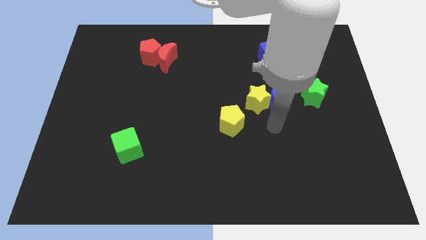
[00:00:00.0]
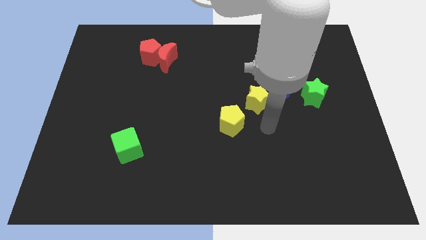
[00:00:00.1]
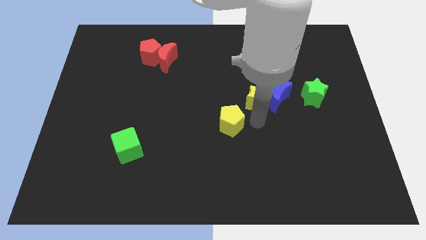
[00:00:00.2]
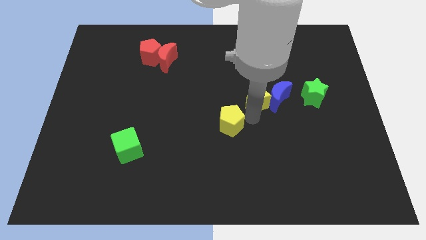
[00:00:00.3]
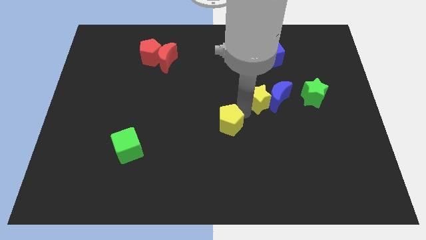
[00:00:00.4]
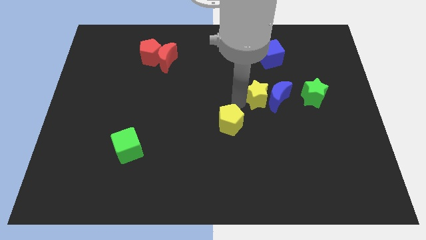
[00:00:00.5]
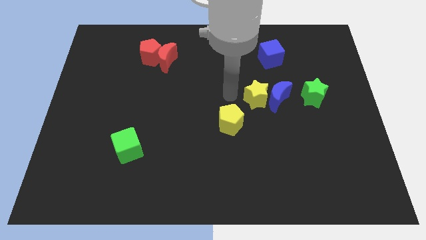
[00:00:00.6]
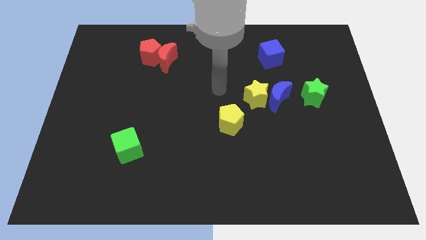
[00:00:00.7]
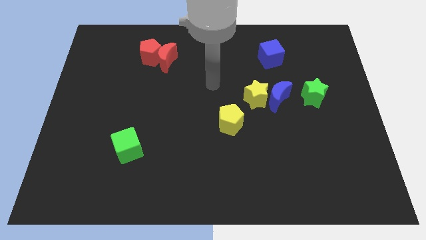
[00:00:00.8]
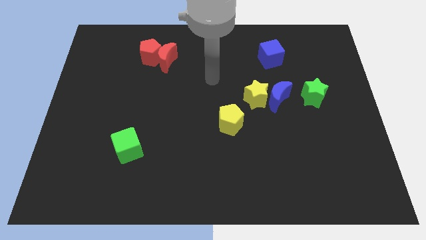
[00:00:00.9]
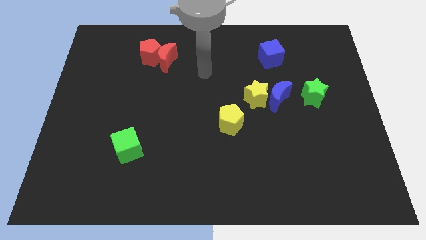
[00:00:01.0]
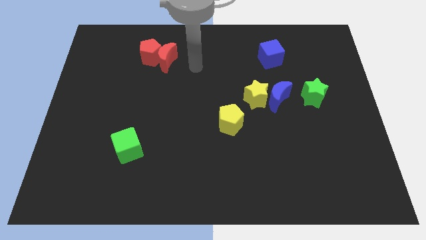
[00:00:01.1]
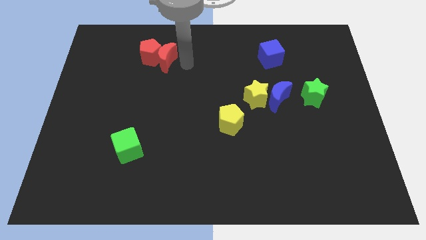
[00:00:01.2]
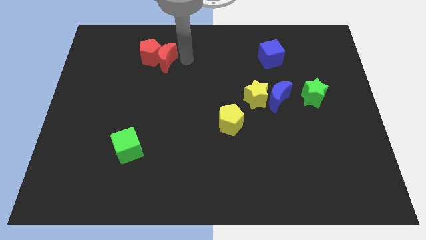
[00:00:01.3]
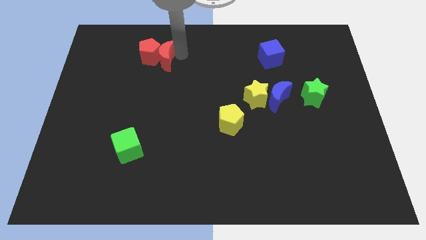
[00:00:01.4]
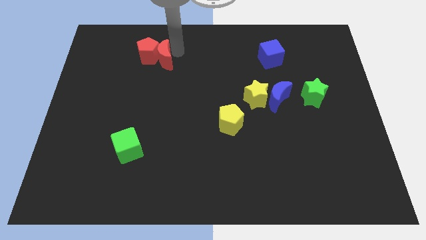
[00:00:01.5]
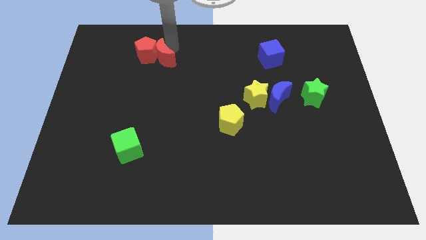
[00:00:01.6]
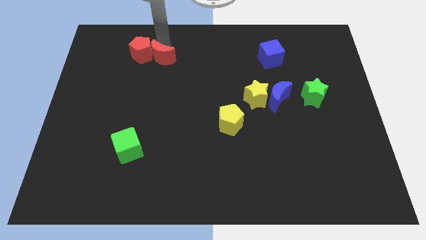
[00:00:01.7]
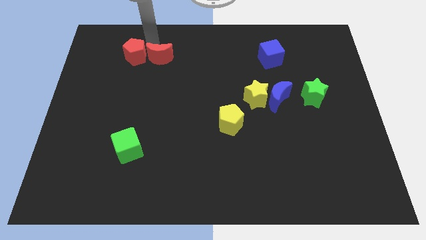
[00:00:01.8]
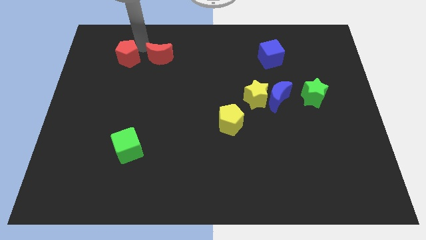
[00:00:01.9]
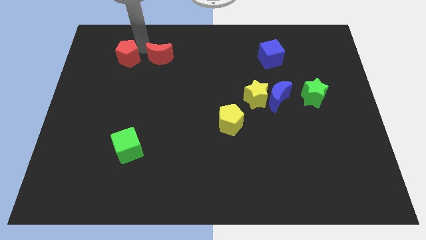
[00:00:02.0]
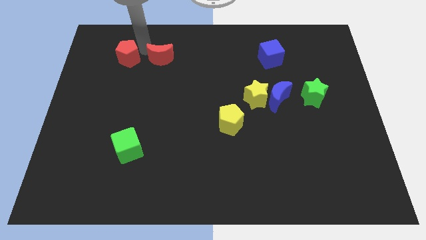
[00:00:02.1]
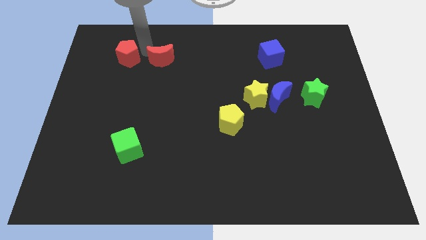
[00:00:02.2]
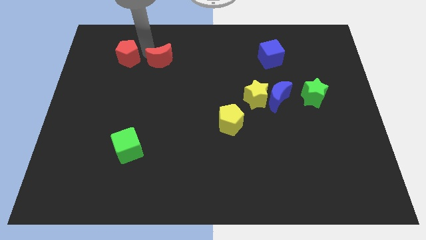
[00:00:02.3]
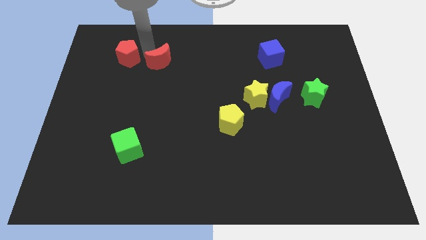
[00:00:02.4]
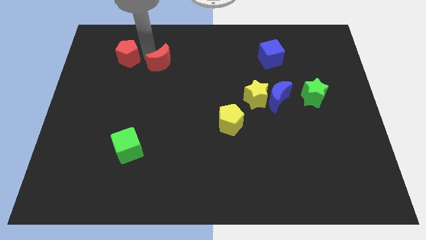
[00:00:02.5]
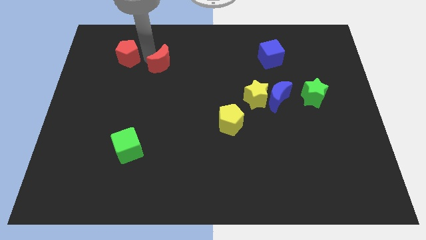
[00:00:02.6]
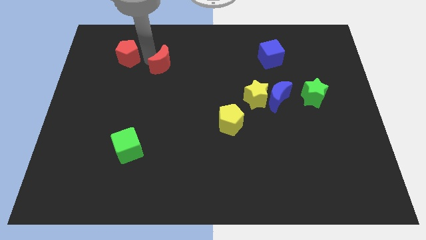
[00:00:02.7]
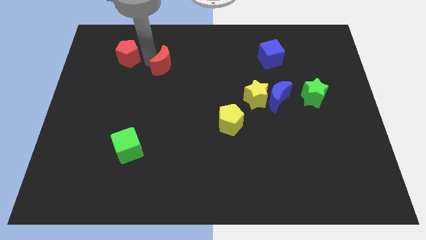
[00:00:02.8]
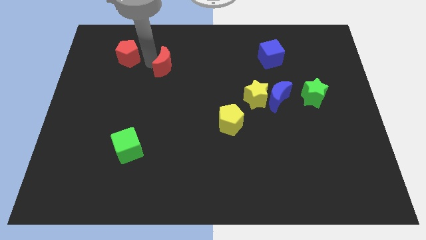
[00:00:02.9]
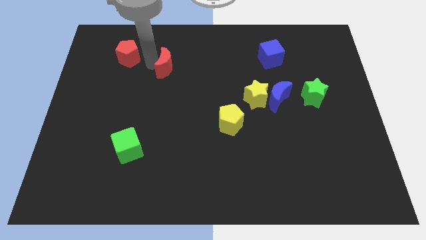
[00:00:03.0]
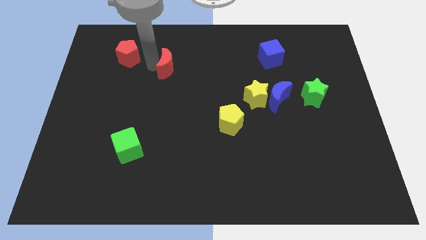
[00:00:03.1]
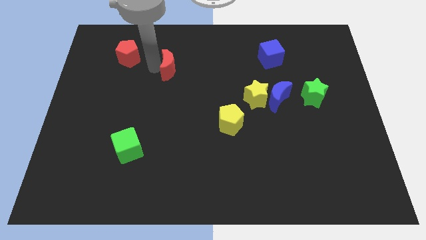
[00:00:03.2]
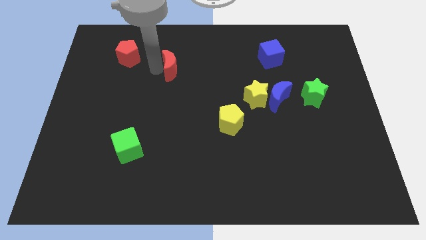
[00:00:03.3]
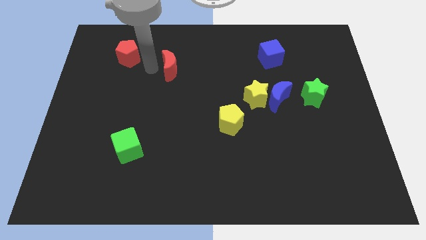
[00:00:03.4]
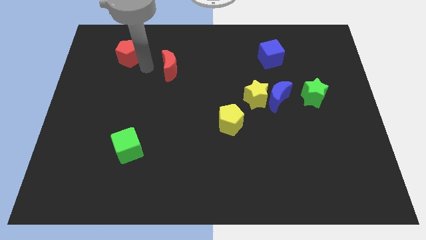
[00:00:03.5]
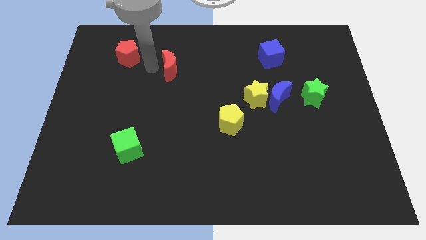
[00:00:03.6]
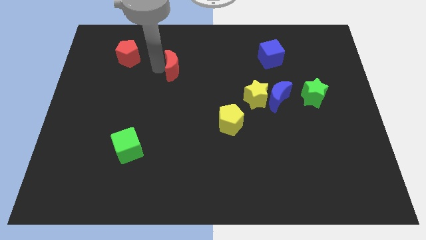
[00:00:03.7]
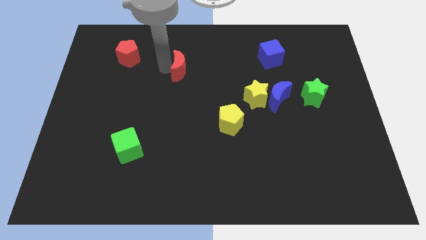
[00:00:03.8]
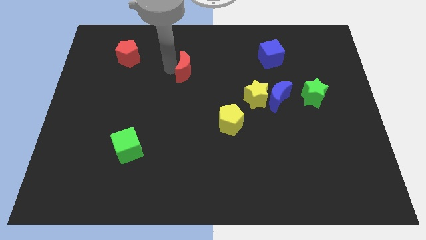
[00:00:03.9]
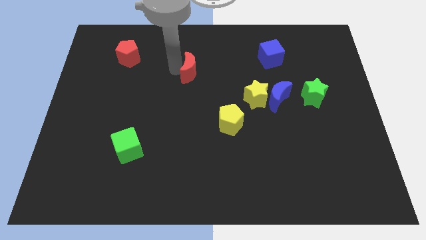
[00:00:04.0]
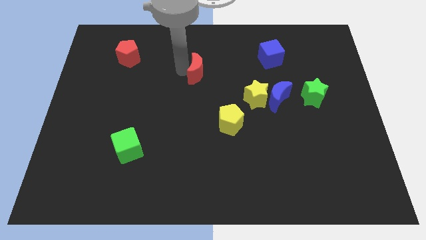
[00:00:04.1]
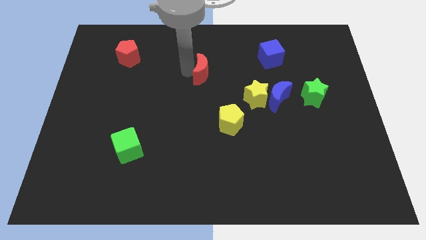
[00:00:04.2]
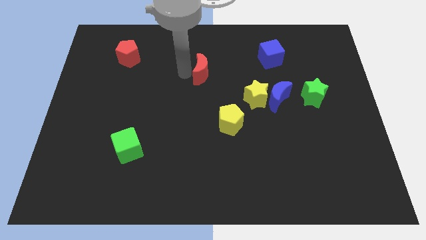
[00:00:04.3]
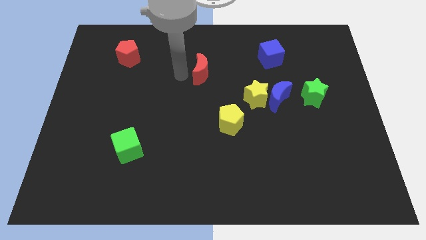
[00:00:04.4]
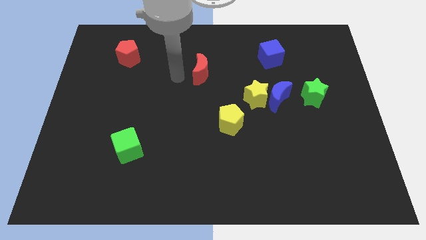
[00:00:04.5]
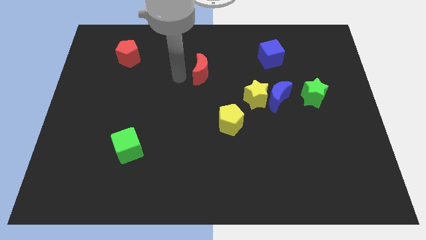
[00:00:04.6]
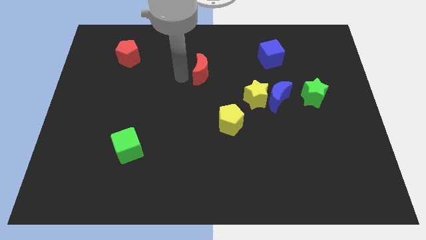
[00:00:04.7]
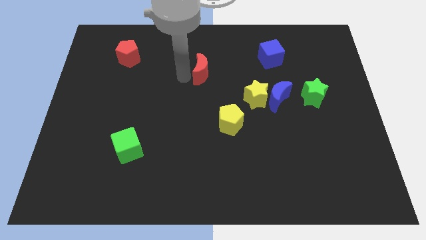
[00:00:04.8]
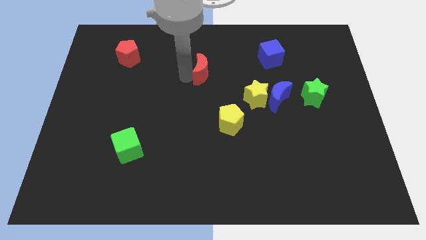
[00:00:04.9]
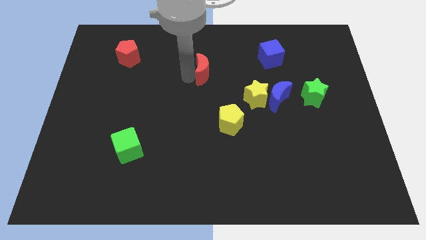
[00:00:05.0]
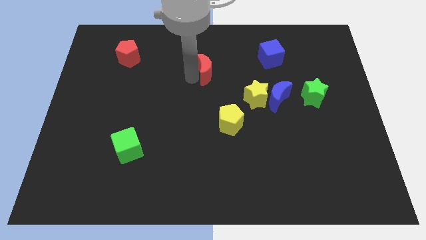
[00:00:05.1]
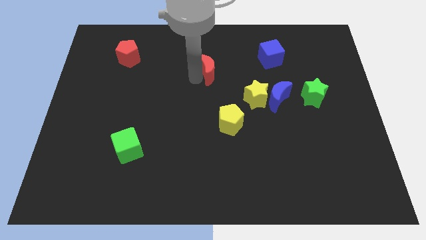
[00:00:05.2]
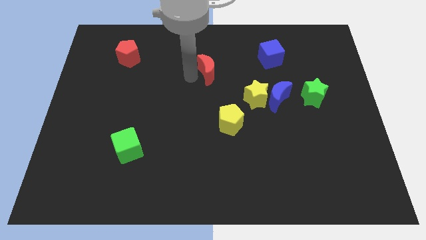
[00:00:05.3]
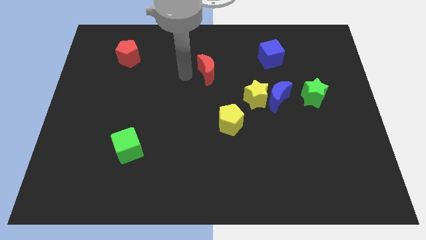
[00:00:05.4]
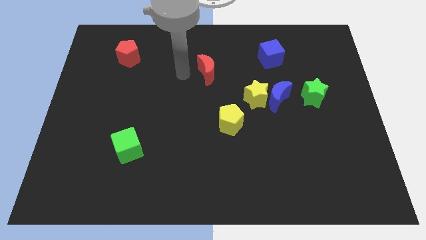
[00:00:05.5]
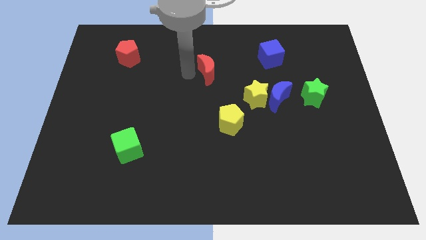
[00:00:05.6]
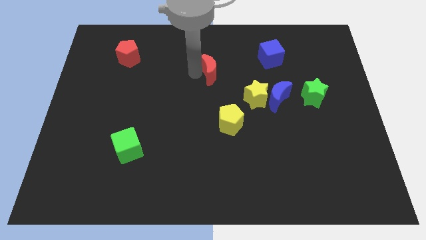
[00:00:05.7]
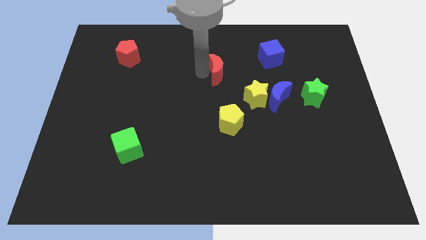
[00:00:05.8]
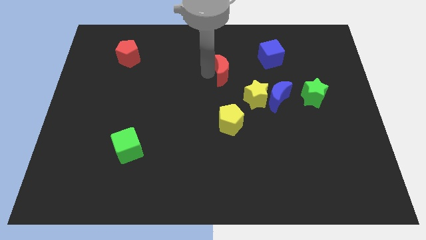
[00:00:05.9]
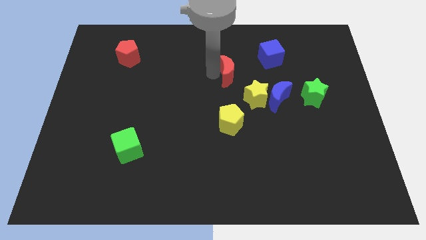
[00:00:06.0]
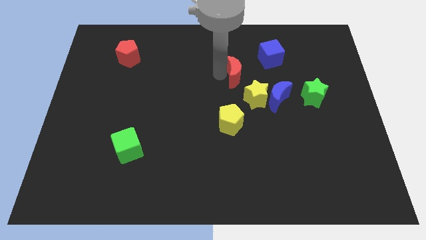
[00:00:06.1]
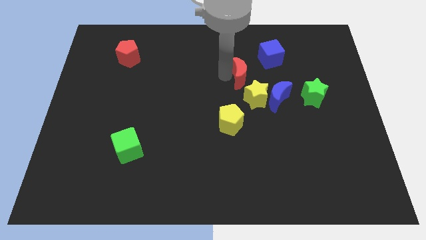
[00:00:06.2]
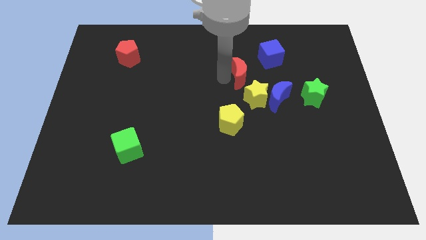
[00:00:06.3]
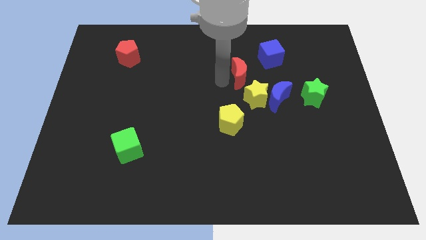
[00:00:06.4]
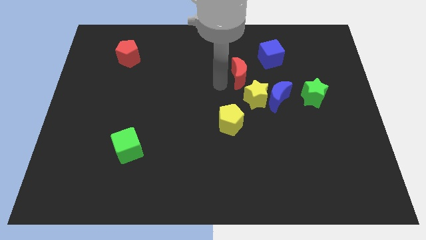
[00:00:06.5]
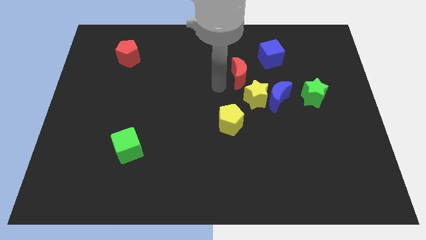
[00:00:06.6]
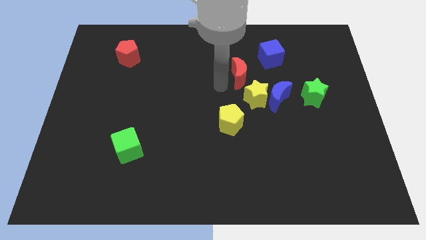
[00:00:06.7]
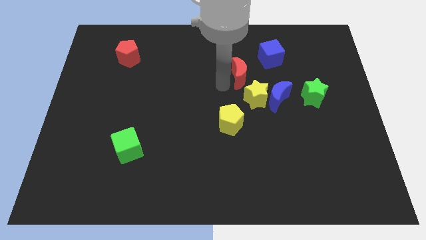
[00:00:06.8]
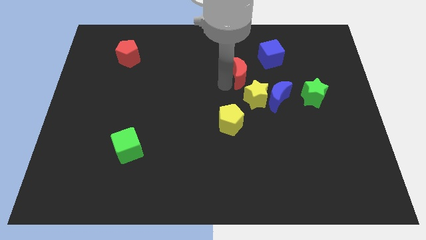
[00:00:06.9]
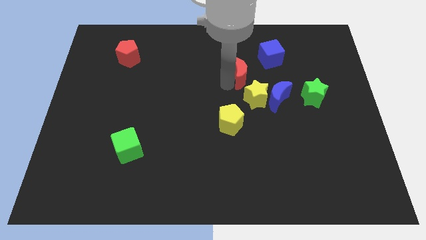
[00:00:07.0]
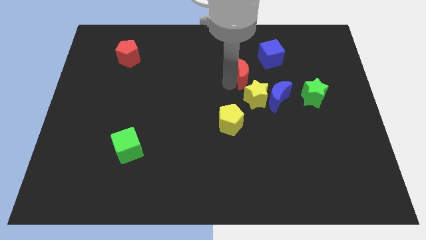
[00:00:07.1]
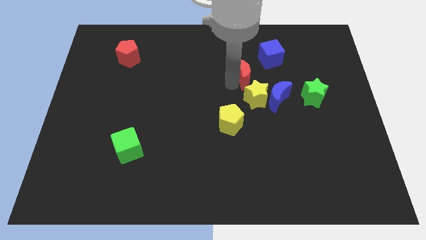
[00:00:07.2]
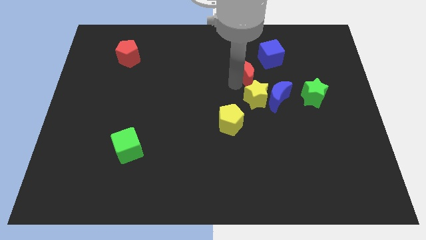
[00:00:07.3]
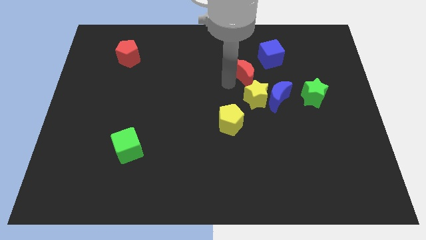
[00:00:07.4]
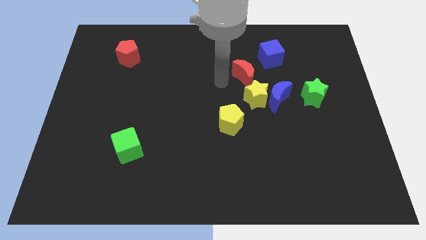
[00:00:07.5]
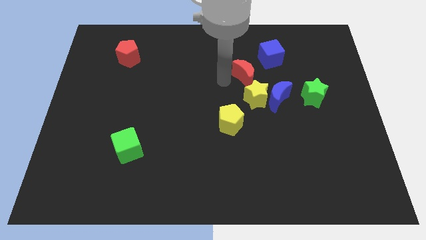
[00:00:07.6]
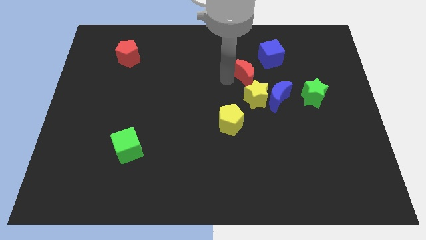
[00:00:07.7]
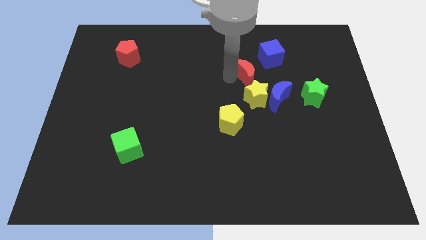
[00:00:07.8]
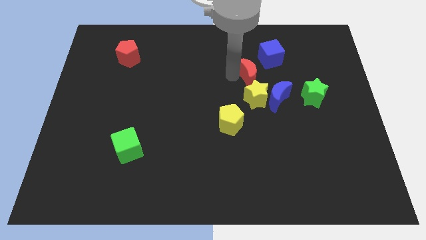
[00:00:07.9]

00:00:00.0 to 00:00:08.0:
slide the red moon to the right

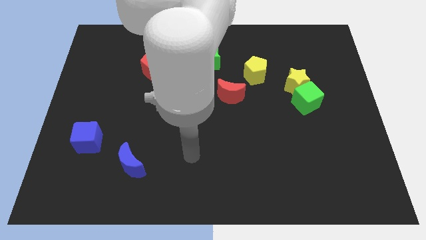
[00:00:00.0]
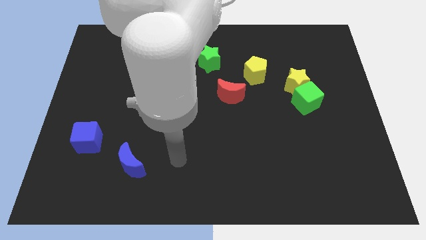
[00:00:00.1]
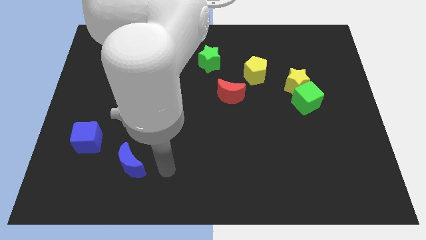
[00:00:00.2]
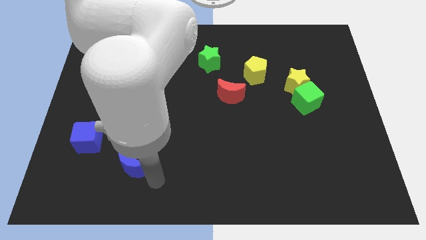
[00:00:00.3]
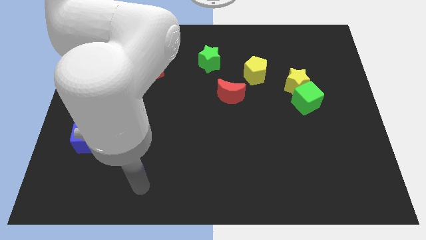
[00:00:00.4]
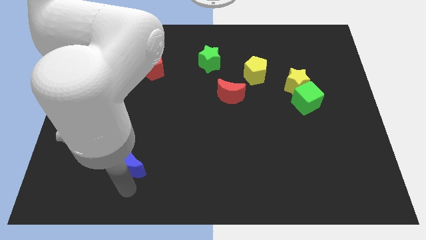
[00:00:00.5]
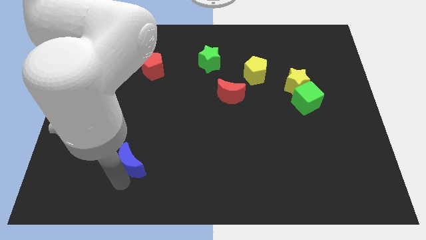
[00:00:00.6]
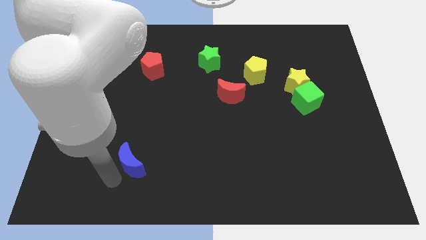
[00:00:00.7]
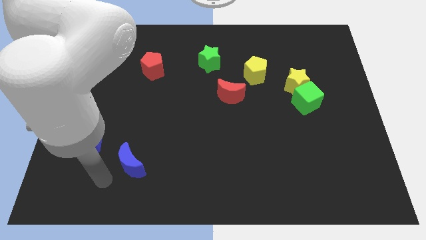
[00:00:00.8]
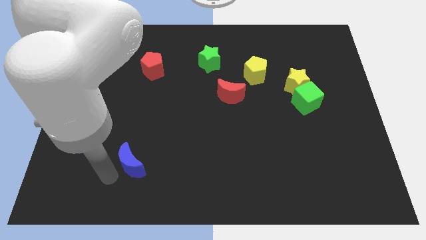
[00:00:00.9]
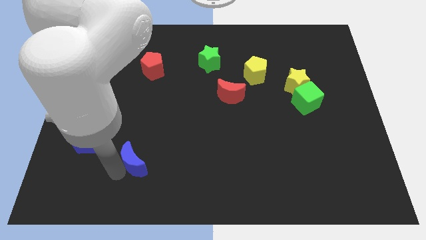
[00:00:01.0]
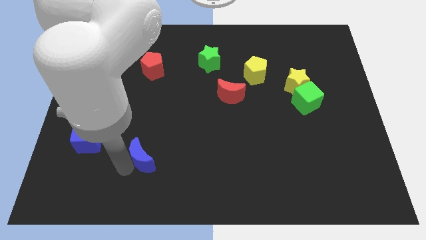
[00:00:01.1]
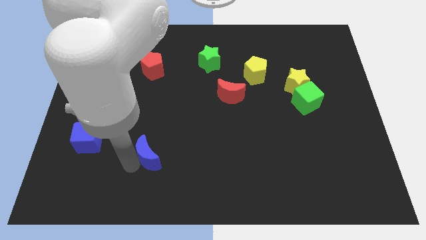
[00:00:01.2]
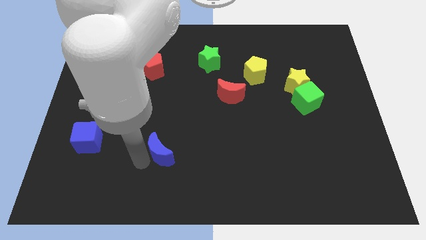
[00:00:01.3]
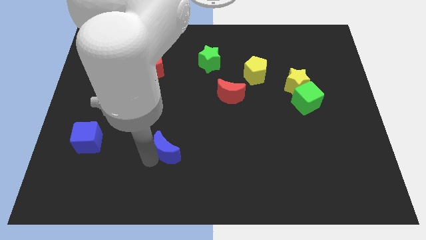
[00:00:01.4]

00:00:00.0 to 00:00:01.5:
slightly slide the blue moon up and to the right
